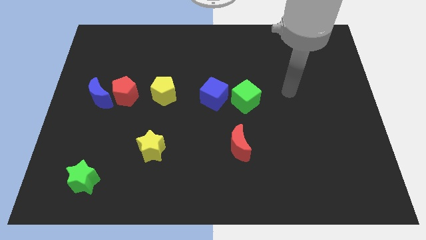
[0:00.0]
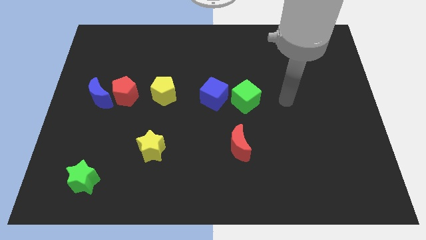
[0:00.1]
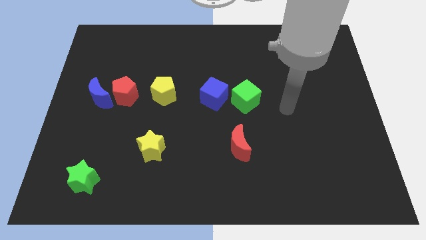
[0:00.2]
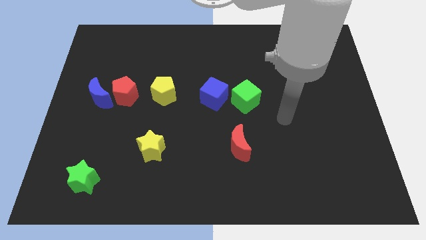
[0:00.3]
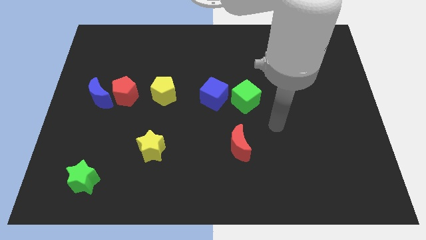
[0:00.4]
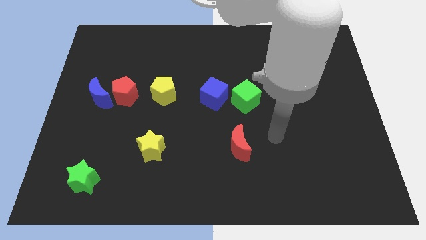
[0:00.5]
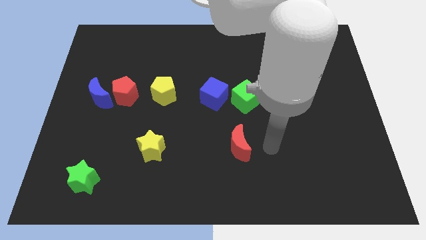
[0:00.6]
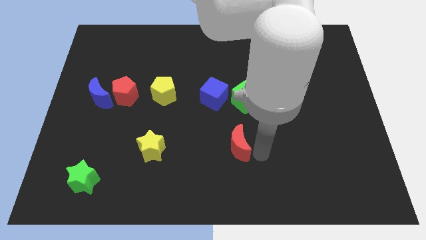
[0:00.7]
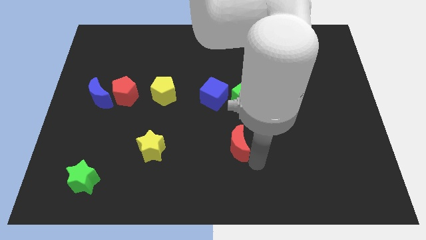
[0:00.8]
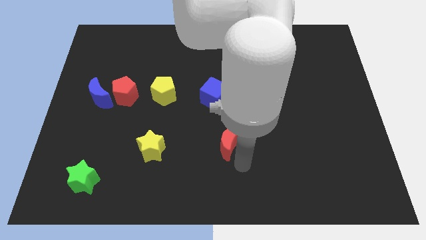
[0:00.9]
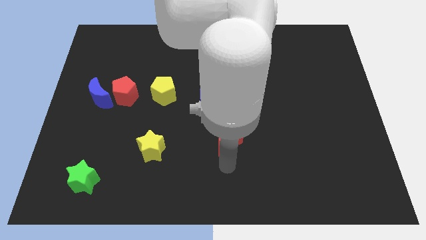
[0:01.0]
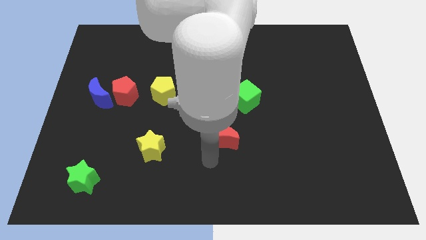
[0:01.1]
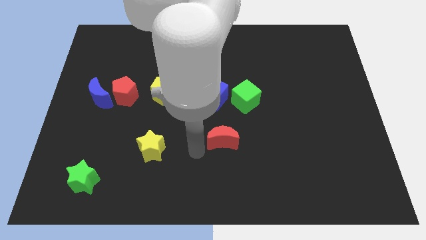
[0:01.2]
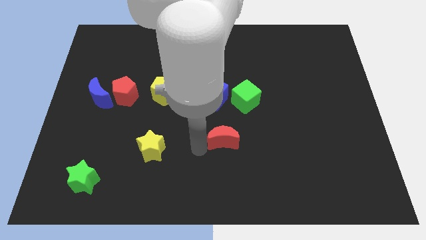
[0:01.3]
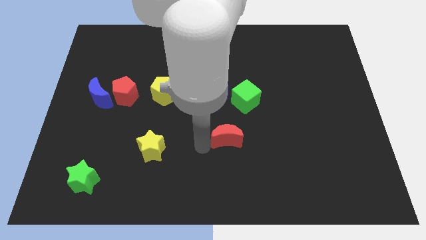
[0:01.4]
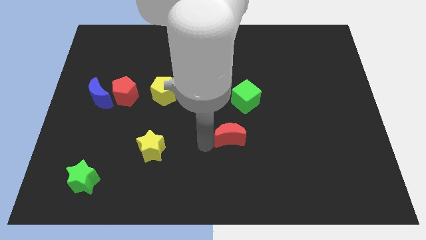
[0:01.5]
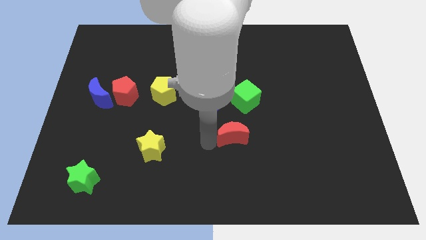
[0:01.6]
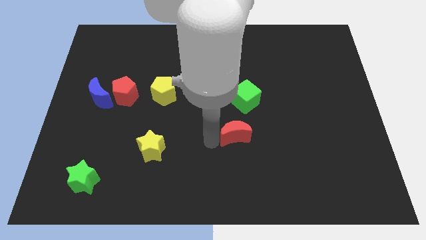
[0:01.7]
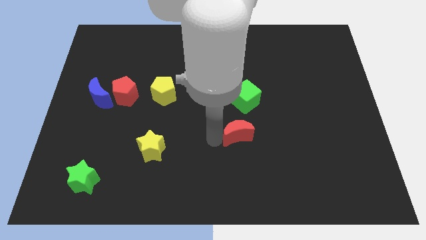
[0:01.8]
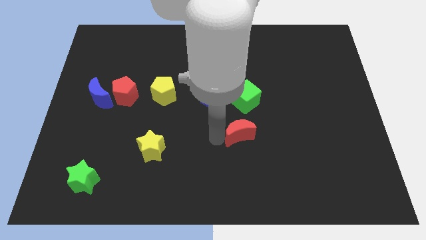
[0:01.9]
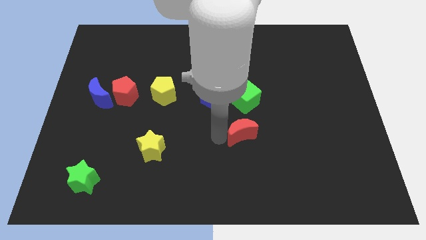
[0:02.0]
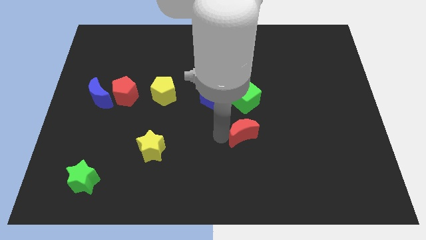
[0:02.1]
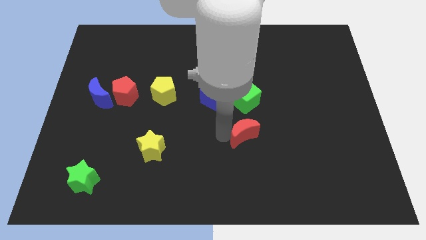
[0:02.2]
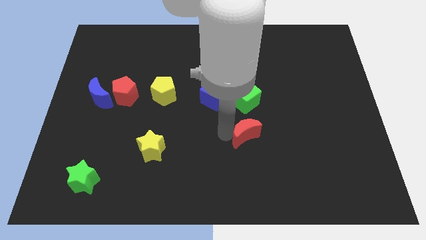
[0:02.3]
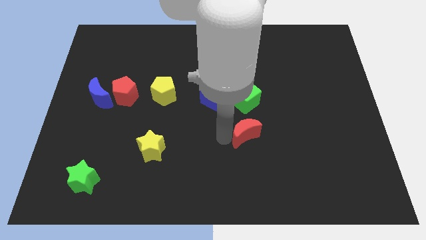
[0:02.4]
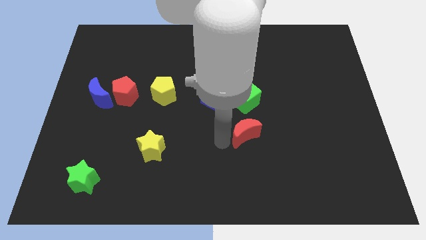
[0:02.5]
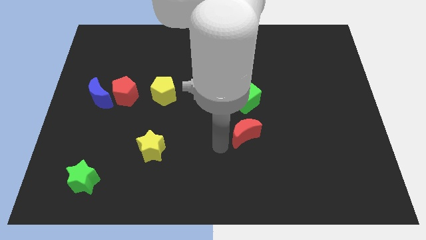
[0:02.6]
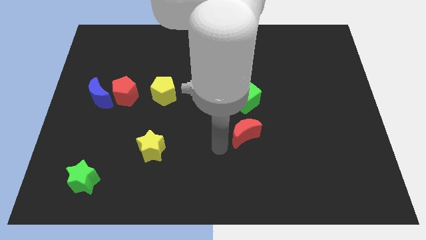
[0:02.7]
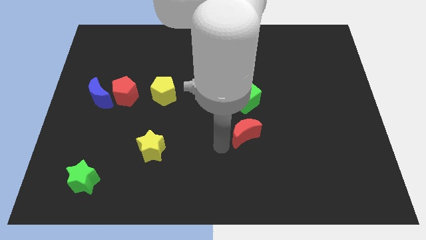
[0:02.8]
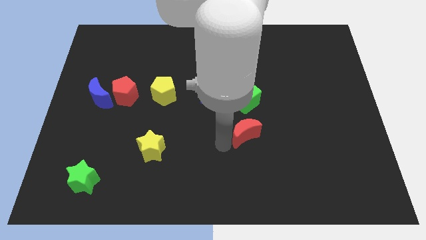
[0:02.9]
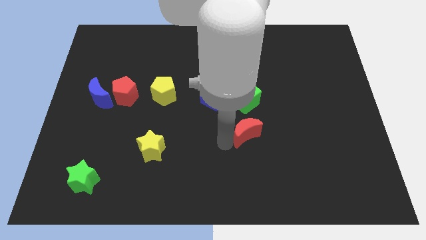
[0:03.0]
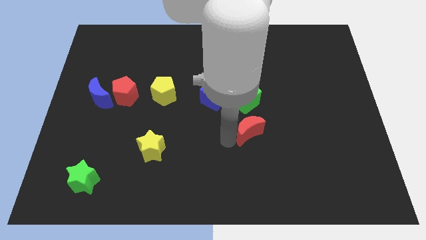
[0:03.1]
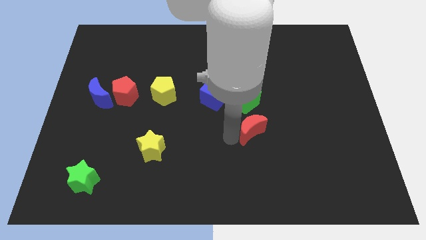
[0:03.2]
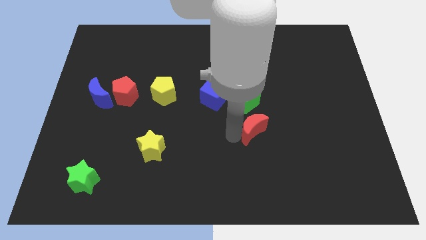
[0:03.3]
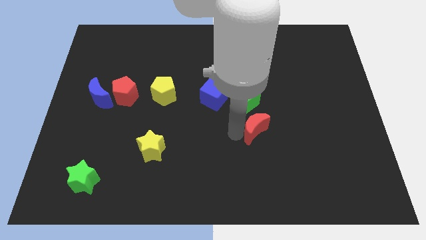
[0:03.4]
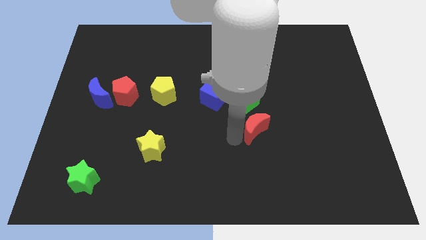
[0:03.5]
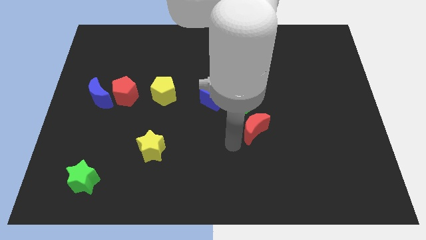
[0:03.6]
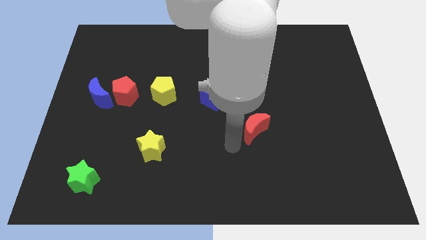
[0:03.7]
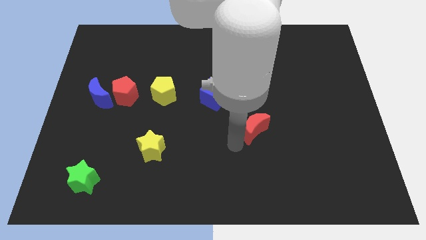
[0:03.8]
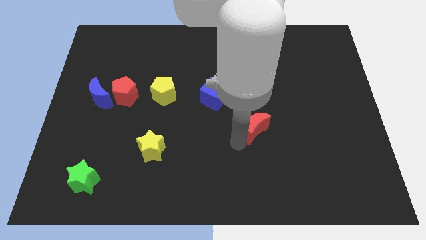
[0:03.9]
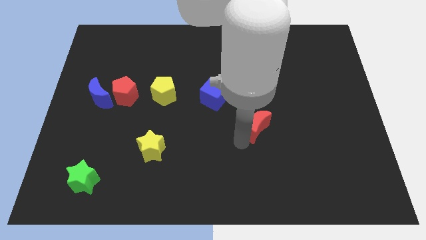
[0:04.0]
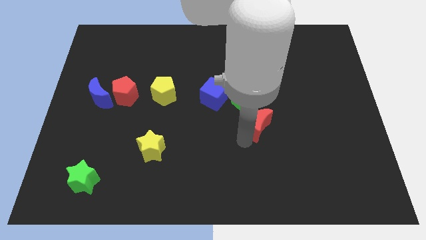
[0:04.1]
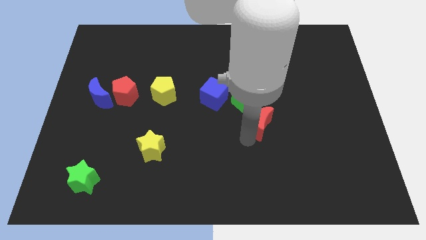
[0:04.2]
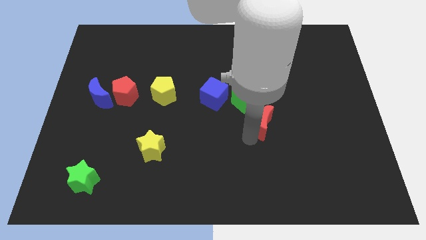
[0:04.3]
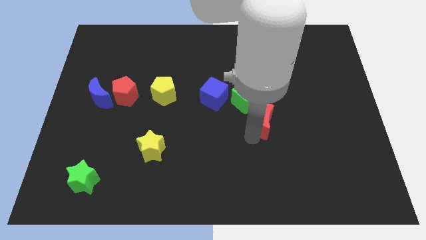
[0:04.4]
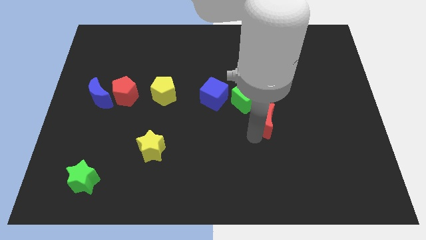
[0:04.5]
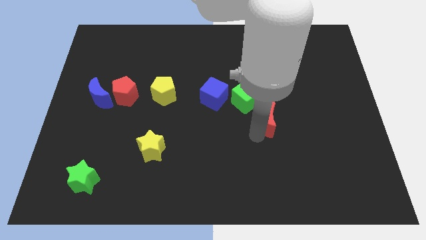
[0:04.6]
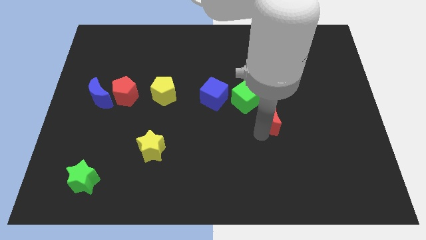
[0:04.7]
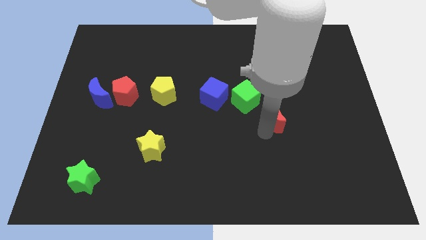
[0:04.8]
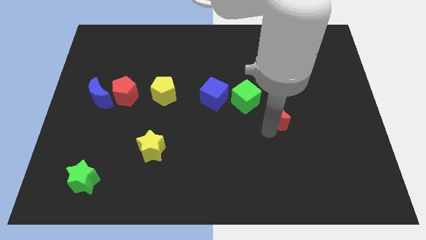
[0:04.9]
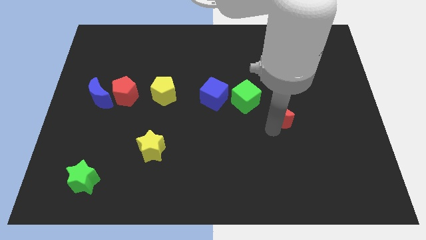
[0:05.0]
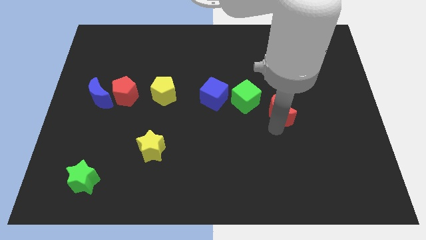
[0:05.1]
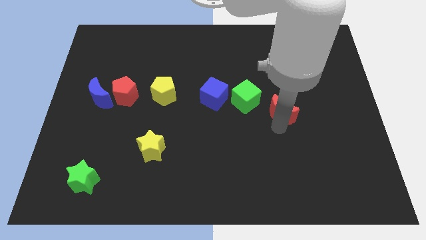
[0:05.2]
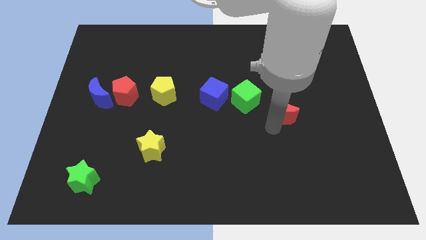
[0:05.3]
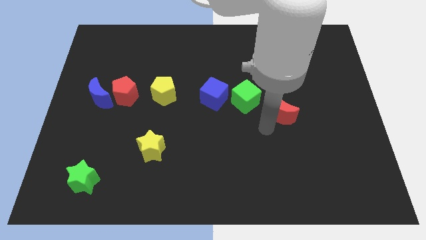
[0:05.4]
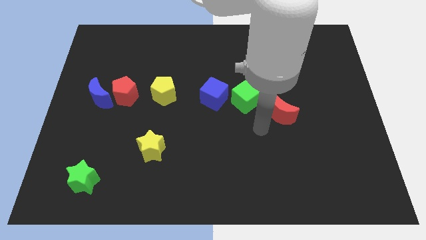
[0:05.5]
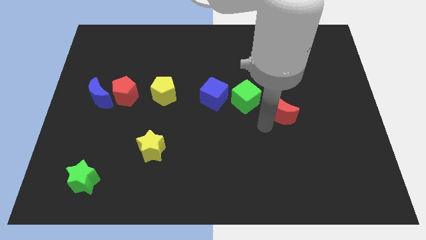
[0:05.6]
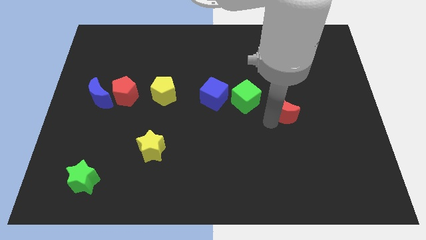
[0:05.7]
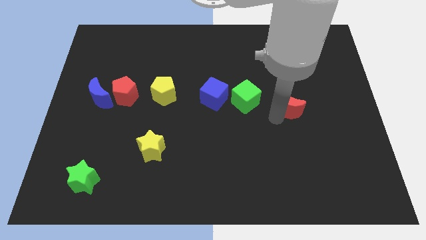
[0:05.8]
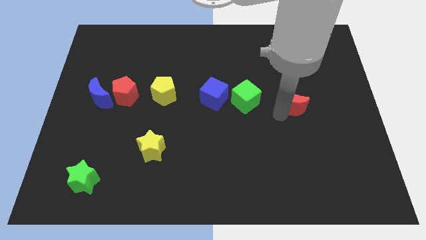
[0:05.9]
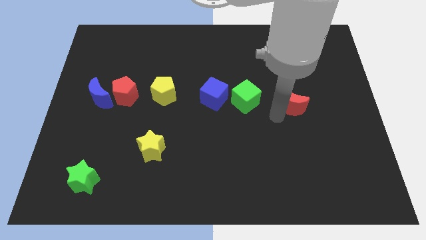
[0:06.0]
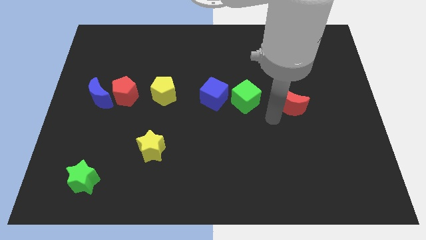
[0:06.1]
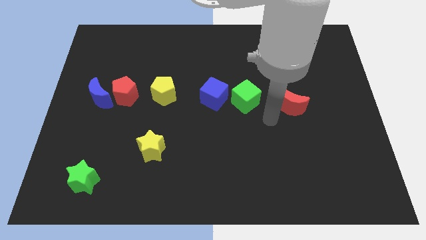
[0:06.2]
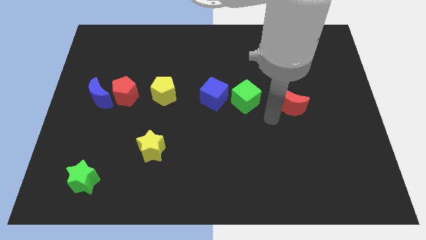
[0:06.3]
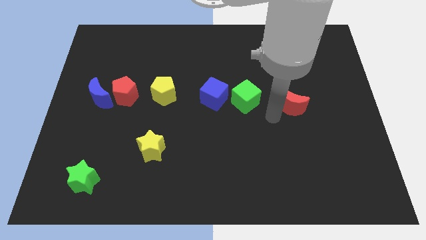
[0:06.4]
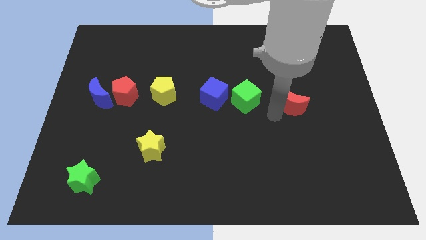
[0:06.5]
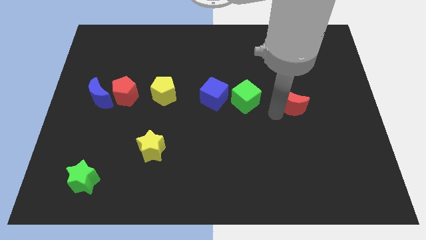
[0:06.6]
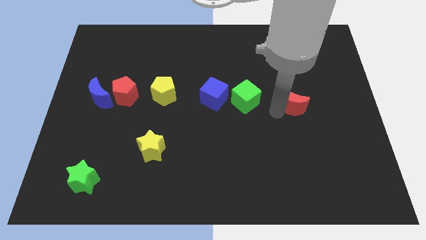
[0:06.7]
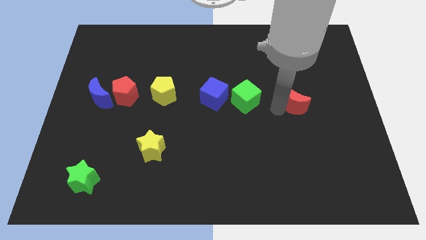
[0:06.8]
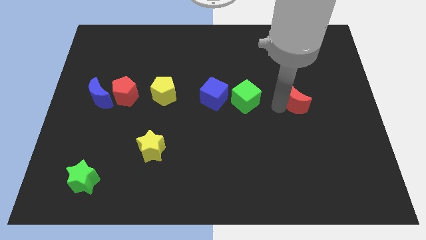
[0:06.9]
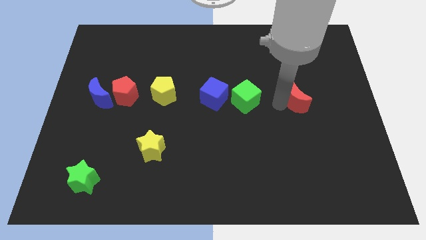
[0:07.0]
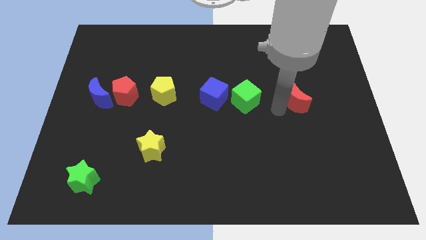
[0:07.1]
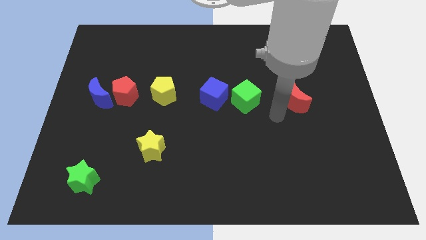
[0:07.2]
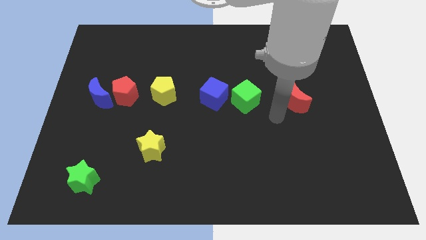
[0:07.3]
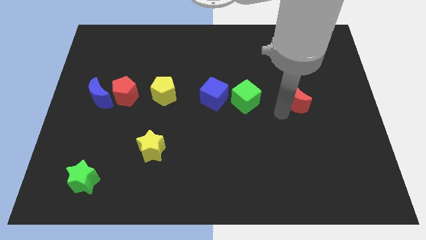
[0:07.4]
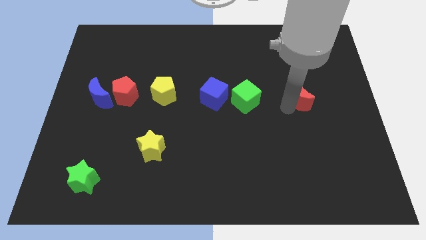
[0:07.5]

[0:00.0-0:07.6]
push the red moon upwards and to the right diagonally

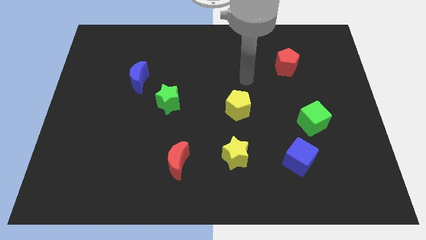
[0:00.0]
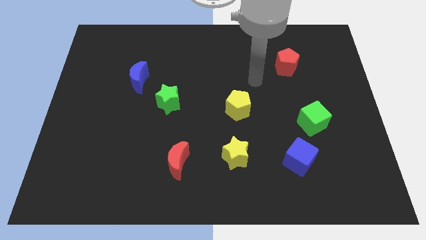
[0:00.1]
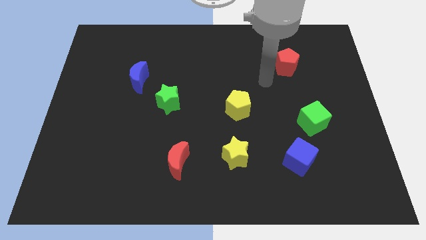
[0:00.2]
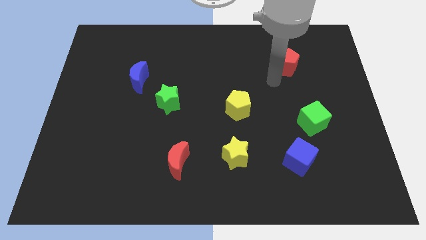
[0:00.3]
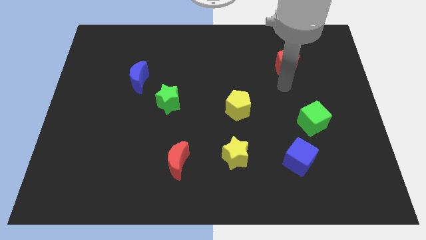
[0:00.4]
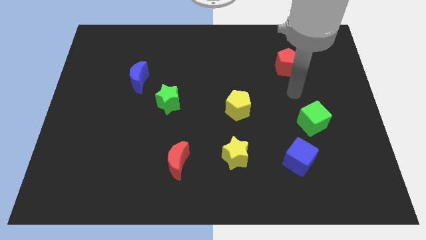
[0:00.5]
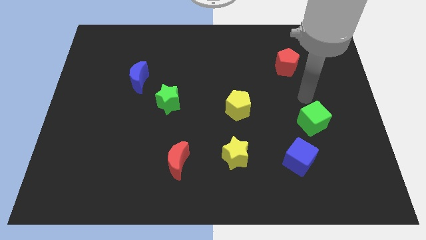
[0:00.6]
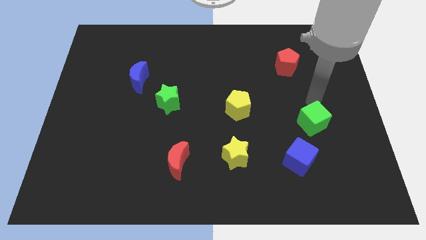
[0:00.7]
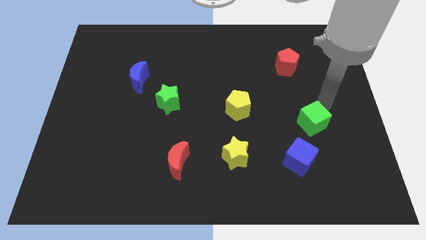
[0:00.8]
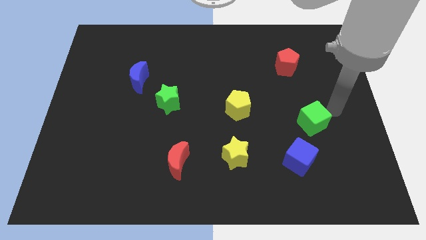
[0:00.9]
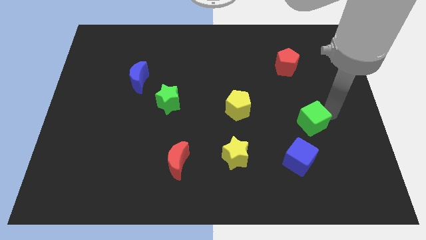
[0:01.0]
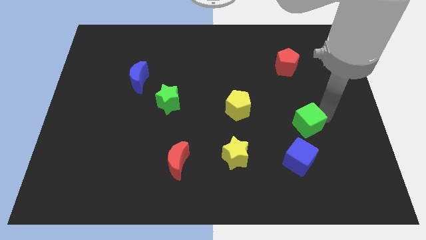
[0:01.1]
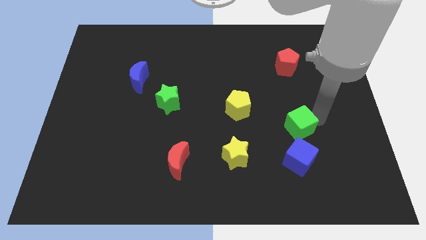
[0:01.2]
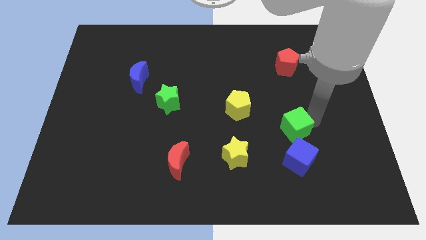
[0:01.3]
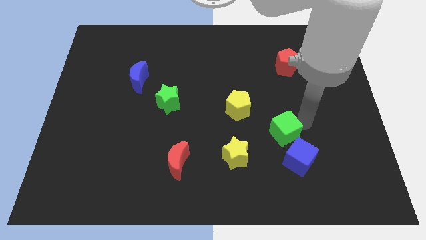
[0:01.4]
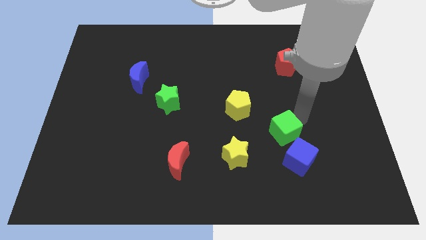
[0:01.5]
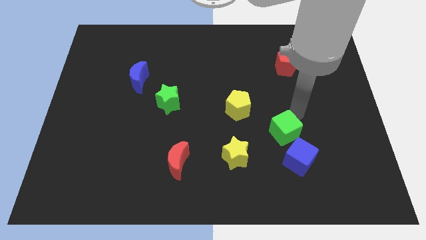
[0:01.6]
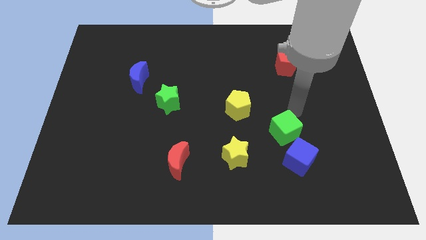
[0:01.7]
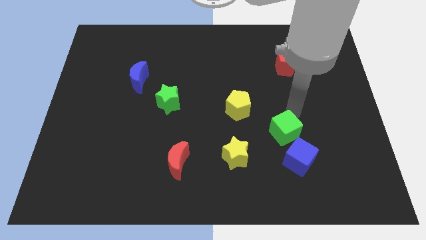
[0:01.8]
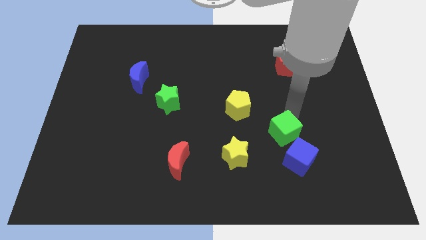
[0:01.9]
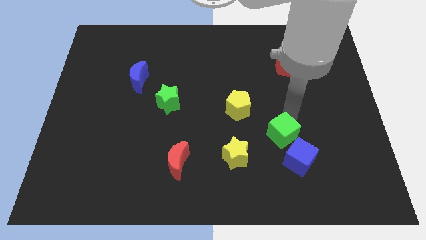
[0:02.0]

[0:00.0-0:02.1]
push the green cube downwards and then left a little
